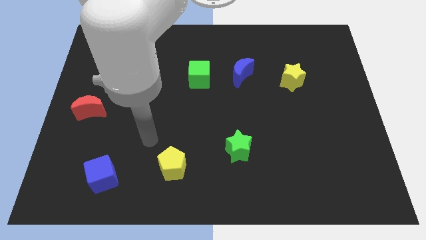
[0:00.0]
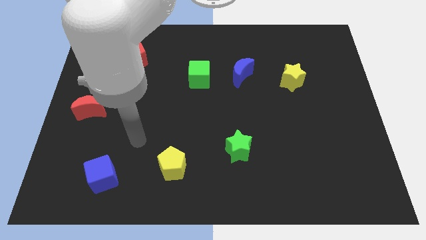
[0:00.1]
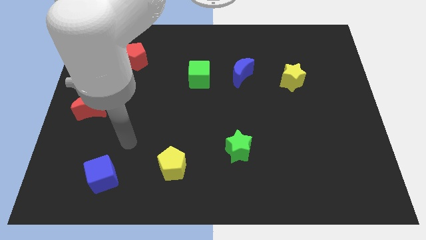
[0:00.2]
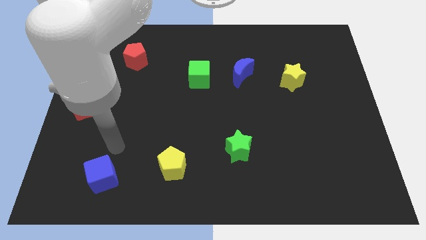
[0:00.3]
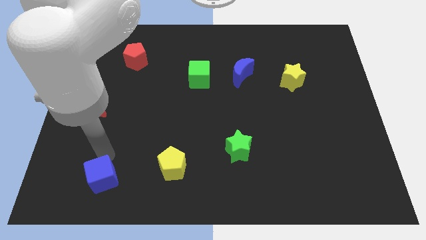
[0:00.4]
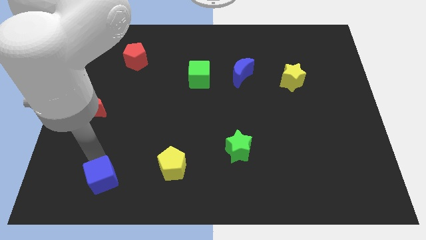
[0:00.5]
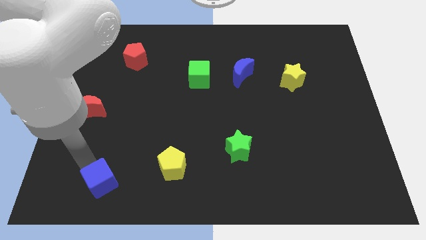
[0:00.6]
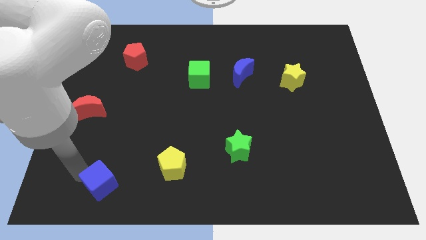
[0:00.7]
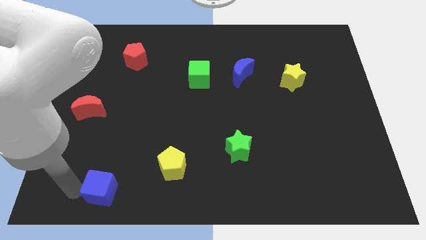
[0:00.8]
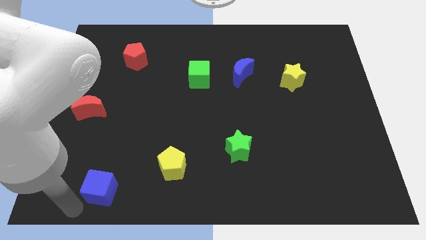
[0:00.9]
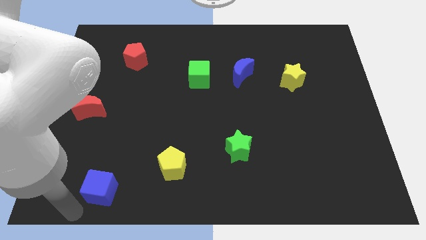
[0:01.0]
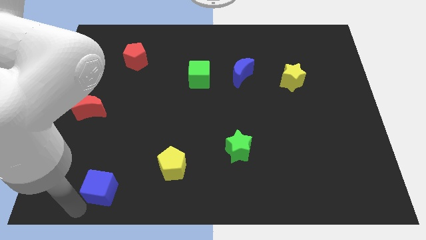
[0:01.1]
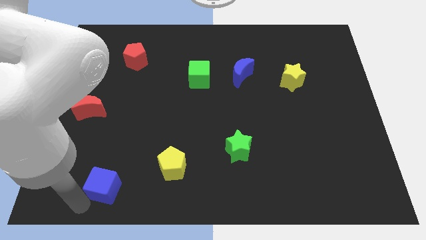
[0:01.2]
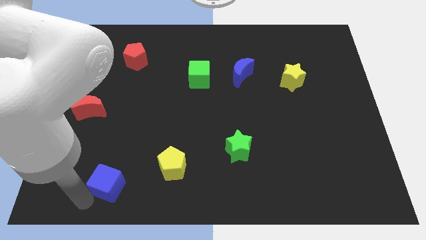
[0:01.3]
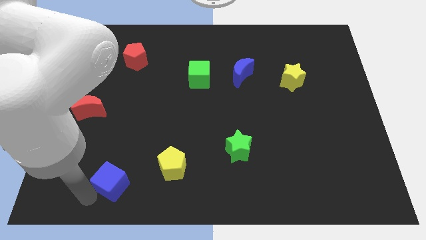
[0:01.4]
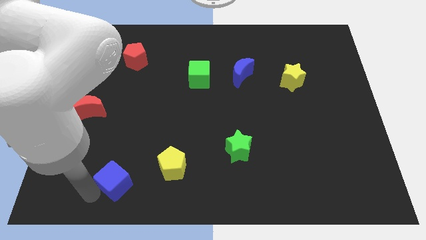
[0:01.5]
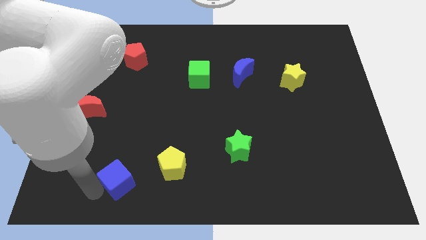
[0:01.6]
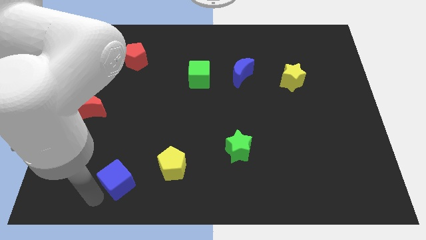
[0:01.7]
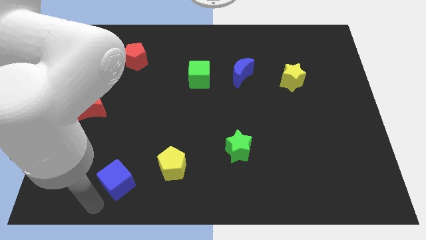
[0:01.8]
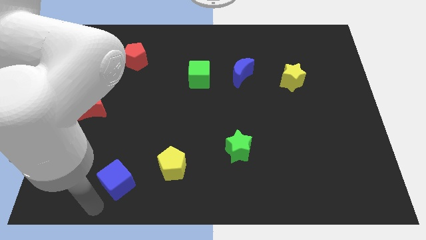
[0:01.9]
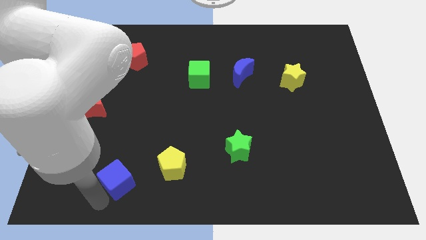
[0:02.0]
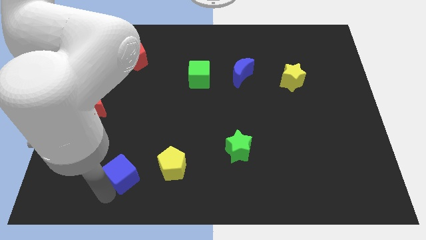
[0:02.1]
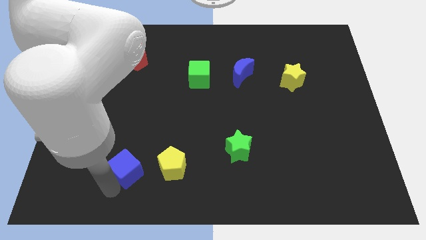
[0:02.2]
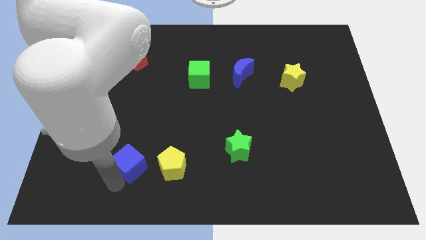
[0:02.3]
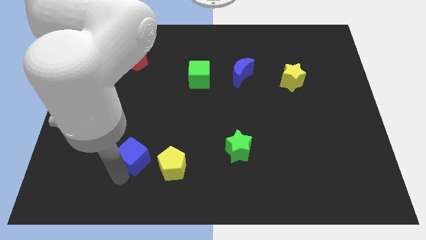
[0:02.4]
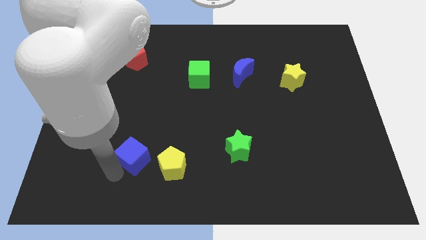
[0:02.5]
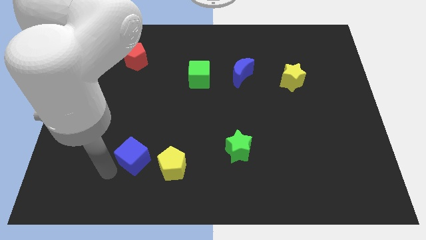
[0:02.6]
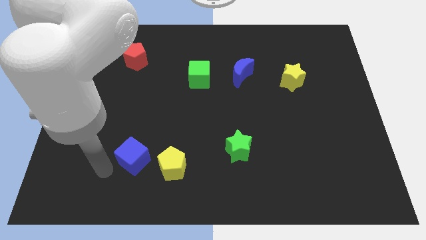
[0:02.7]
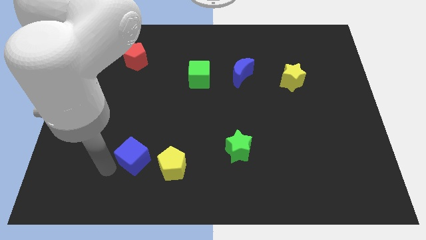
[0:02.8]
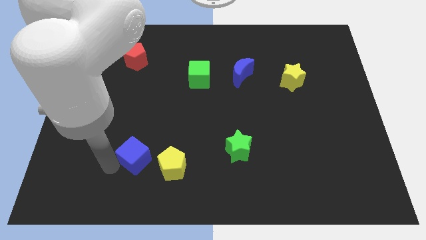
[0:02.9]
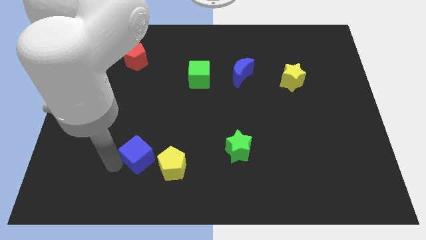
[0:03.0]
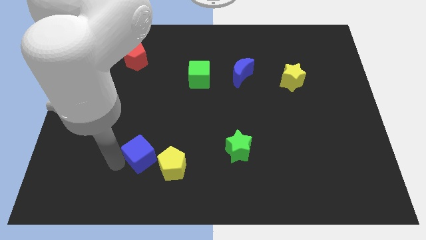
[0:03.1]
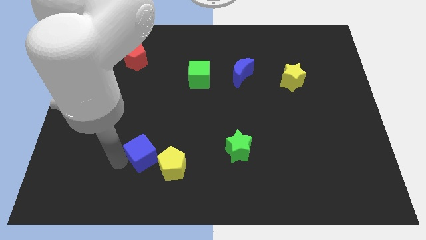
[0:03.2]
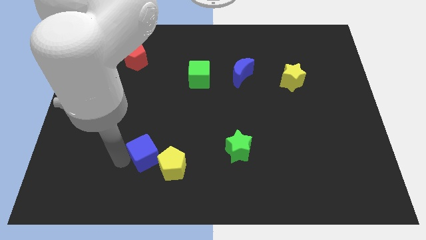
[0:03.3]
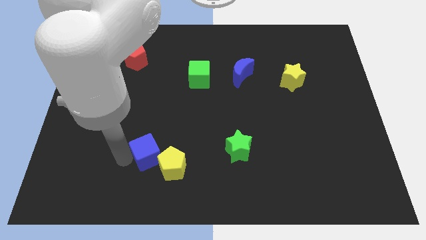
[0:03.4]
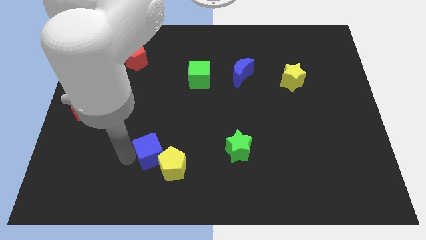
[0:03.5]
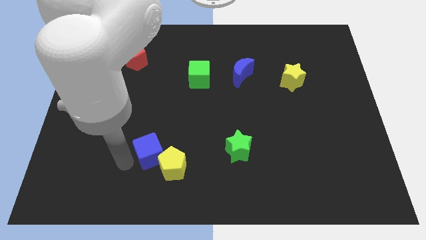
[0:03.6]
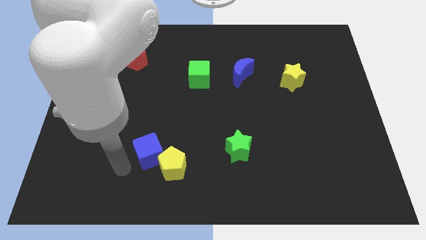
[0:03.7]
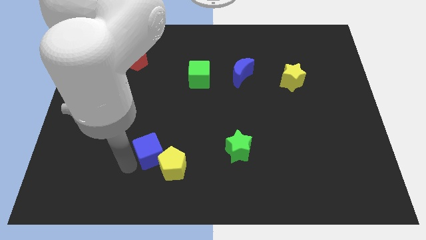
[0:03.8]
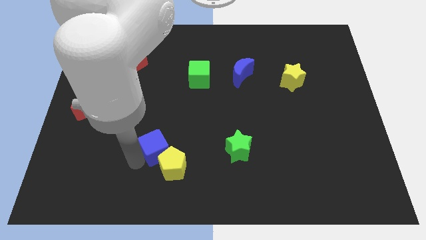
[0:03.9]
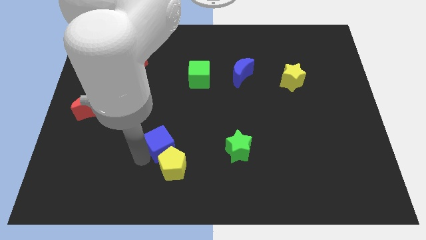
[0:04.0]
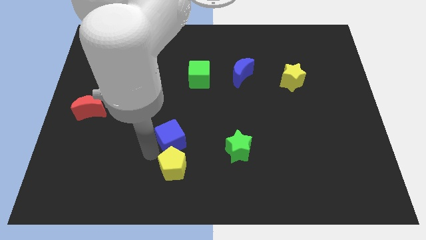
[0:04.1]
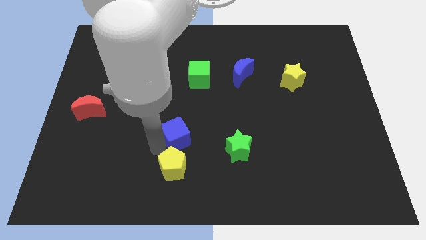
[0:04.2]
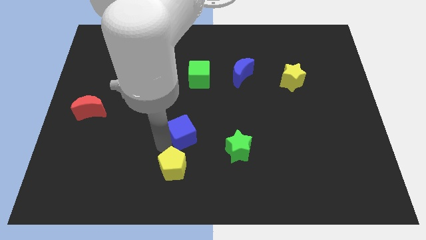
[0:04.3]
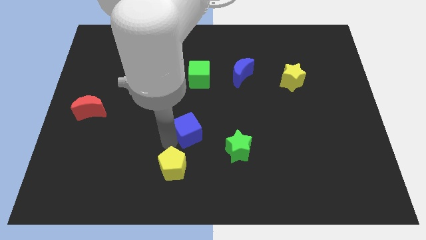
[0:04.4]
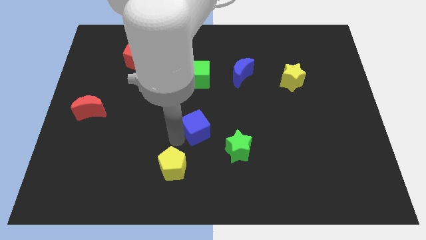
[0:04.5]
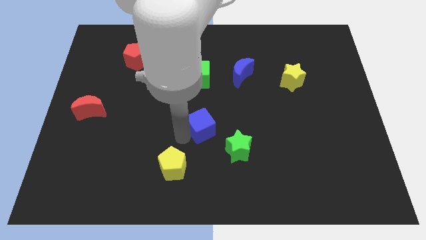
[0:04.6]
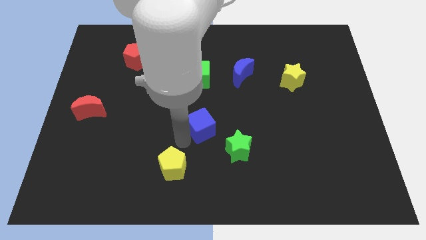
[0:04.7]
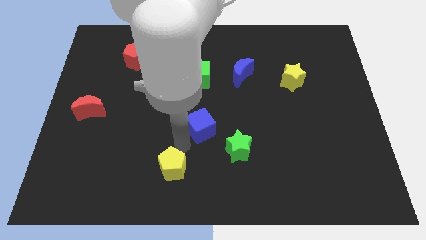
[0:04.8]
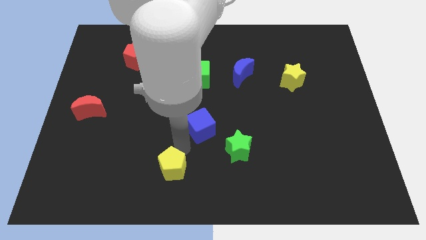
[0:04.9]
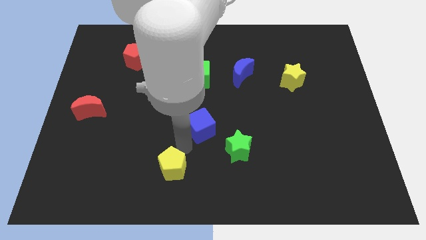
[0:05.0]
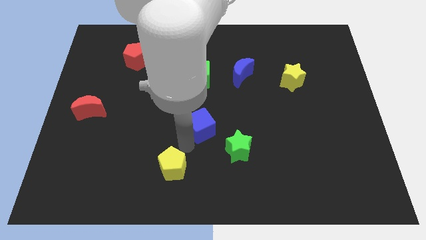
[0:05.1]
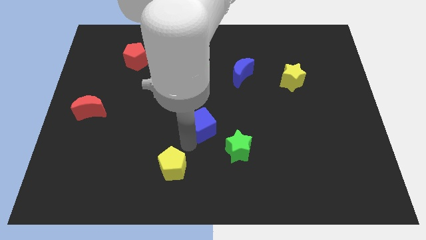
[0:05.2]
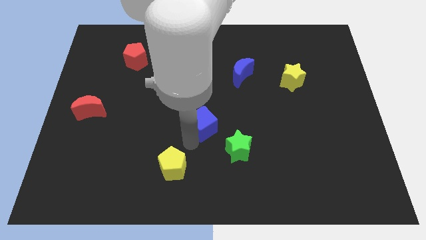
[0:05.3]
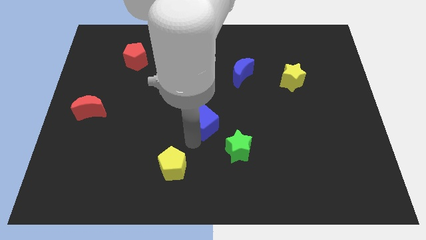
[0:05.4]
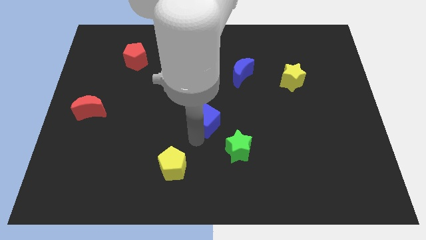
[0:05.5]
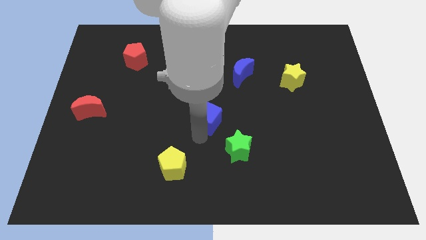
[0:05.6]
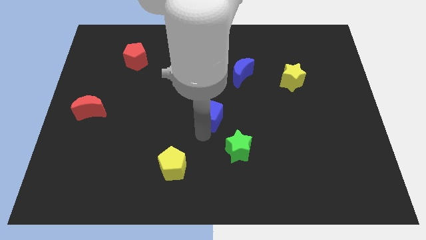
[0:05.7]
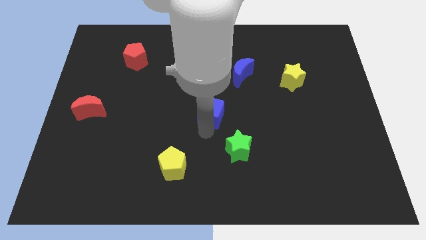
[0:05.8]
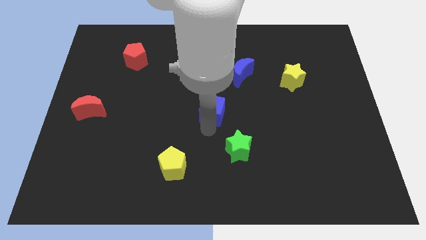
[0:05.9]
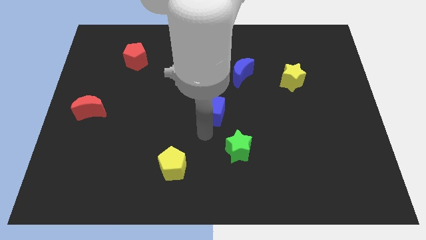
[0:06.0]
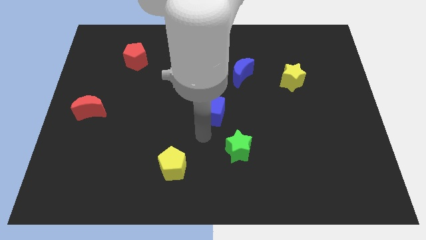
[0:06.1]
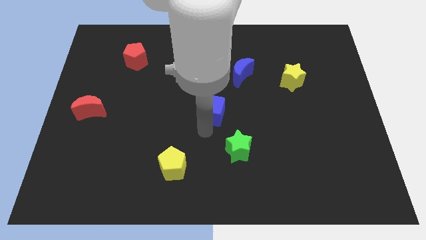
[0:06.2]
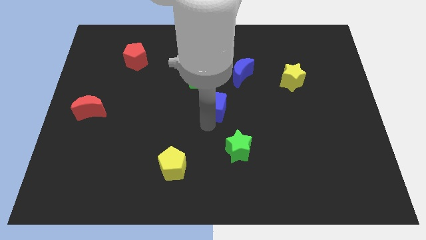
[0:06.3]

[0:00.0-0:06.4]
put the blue cube diagonally down and to the right of the green cube
